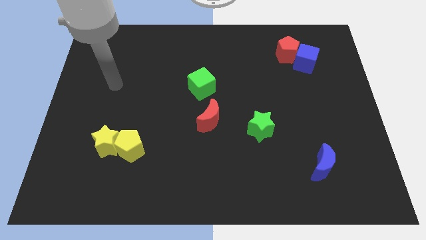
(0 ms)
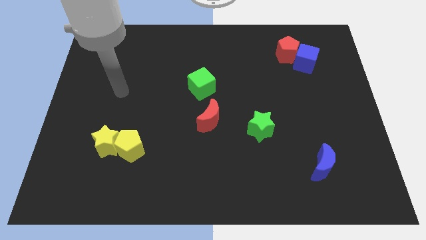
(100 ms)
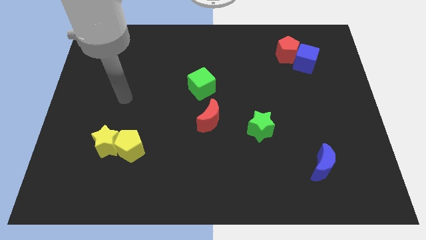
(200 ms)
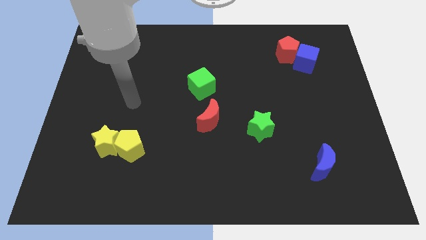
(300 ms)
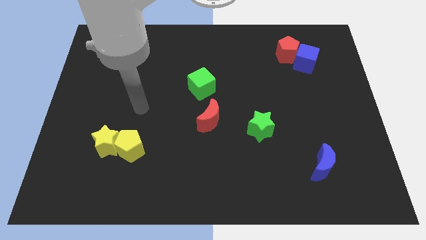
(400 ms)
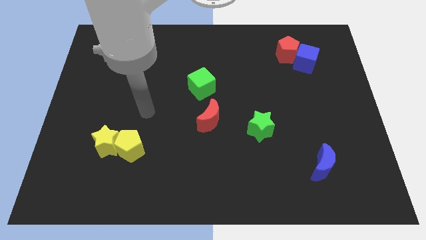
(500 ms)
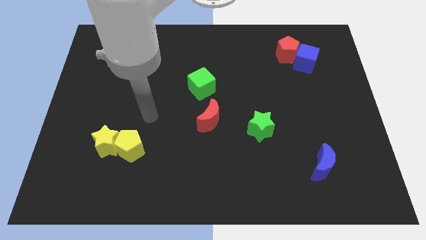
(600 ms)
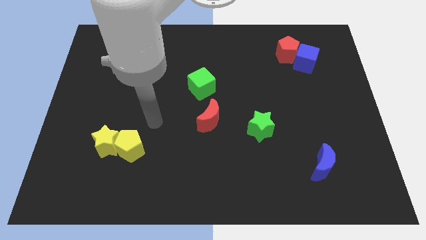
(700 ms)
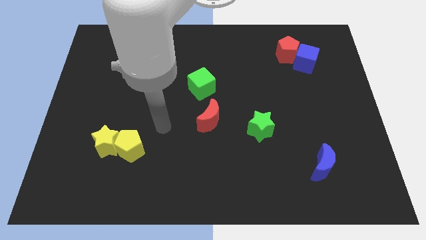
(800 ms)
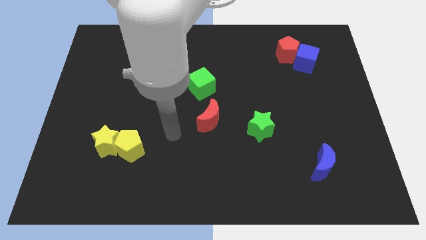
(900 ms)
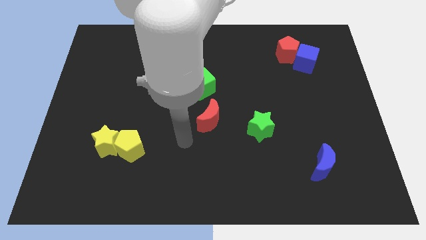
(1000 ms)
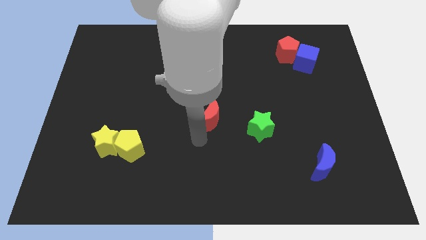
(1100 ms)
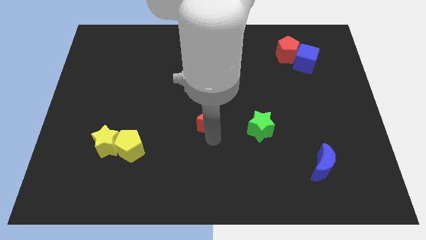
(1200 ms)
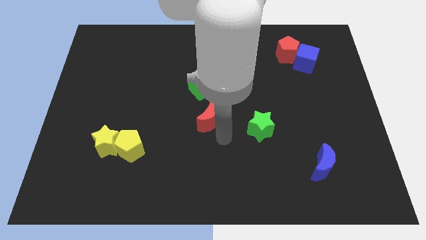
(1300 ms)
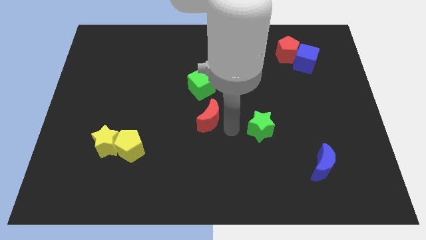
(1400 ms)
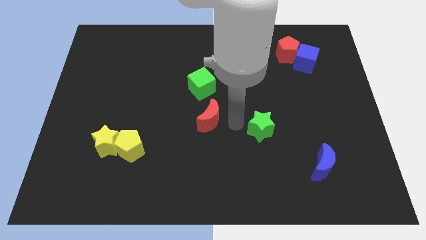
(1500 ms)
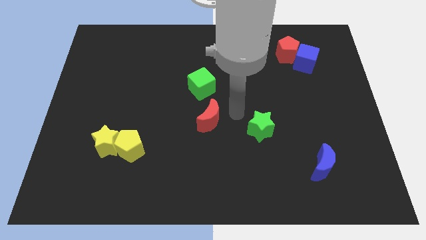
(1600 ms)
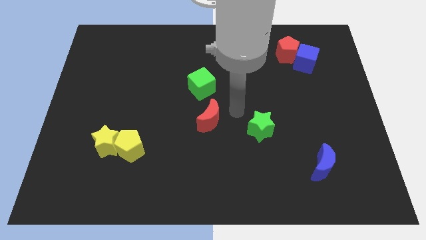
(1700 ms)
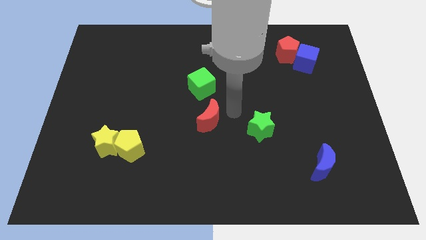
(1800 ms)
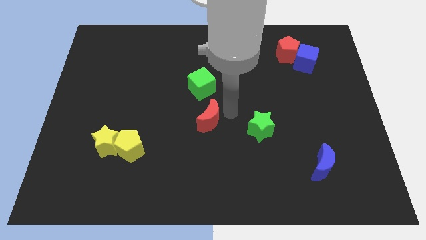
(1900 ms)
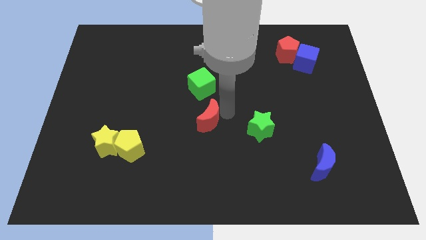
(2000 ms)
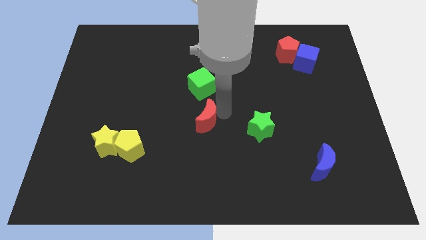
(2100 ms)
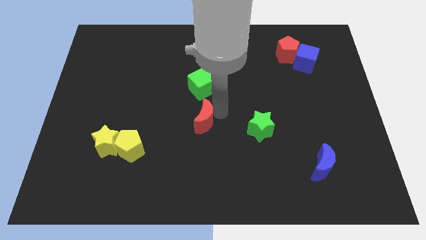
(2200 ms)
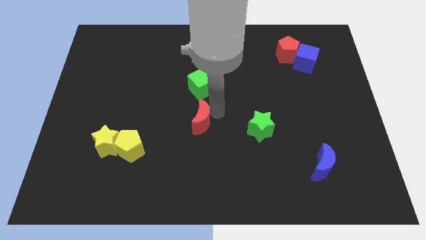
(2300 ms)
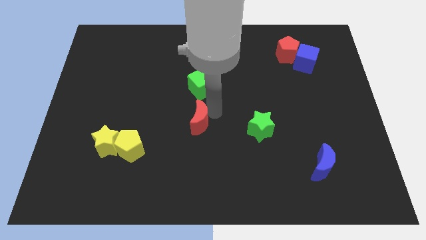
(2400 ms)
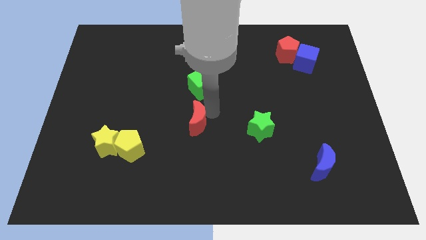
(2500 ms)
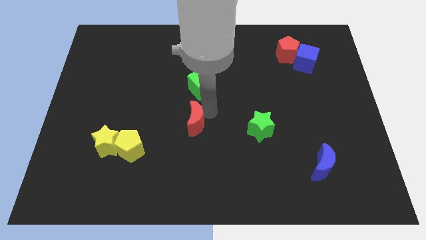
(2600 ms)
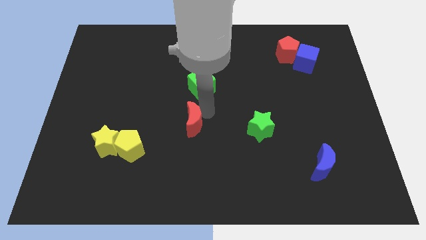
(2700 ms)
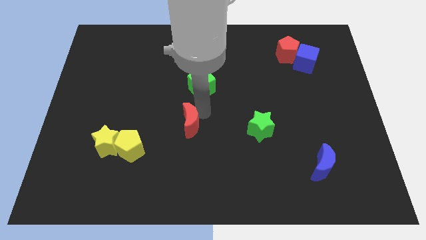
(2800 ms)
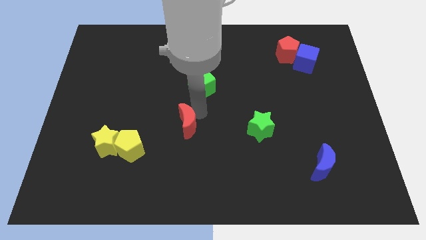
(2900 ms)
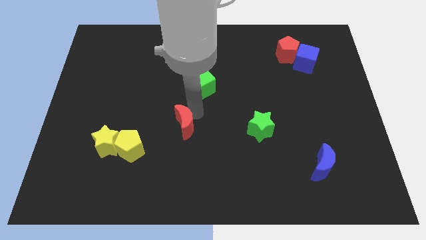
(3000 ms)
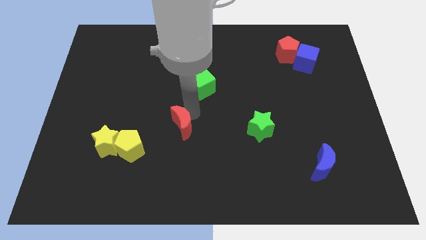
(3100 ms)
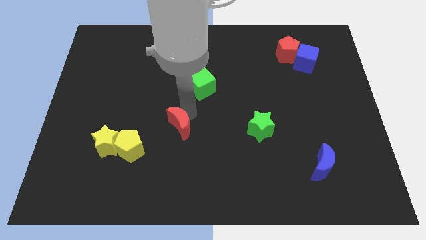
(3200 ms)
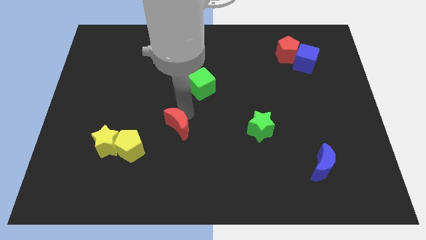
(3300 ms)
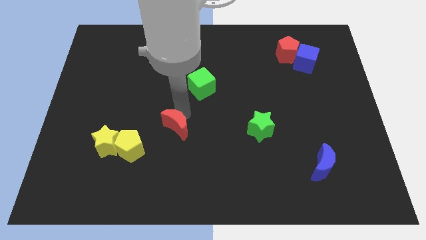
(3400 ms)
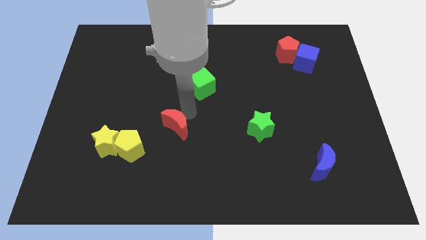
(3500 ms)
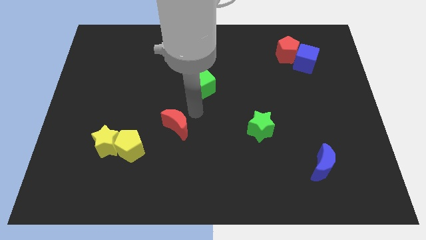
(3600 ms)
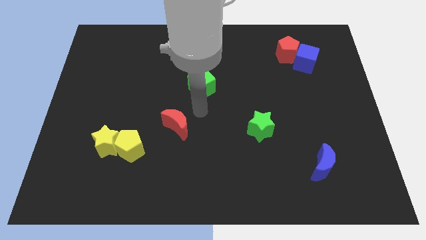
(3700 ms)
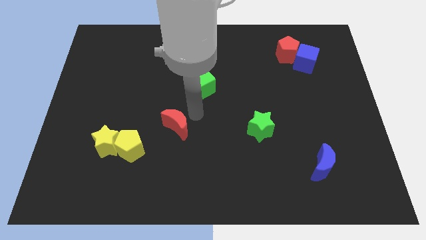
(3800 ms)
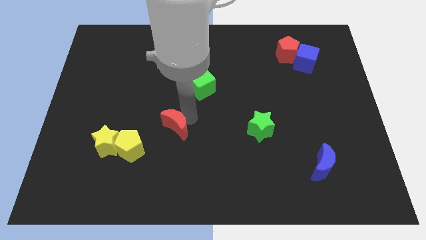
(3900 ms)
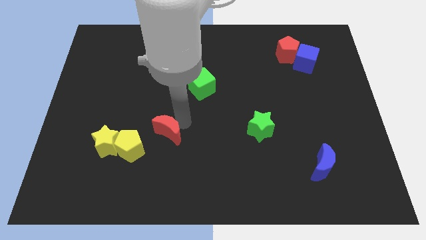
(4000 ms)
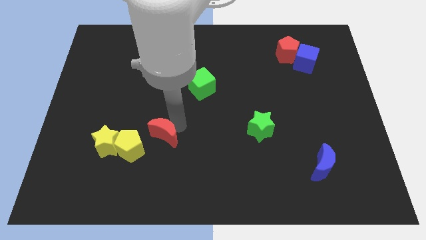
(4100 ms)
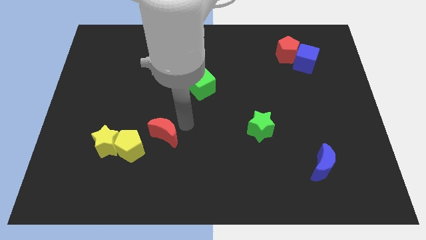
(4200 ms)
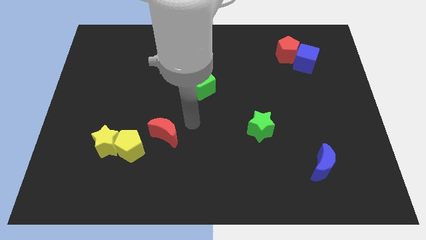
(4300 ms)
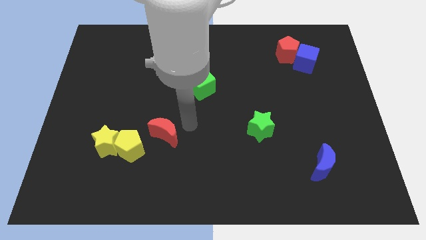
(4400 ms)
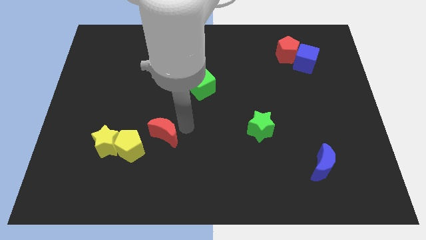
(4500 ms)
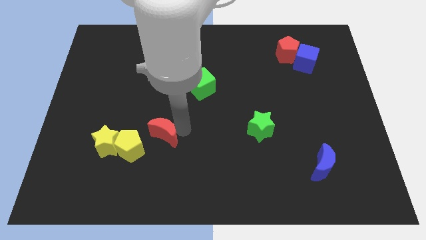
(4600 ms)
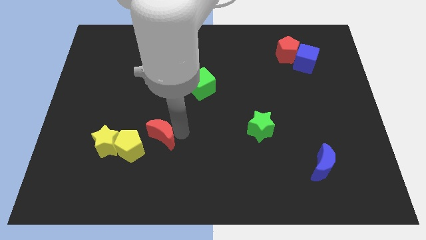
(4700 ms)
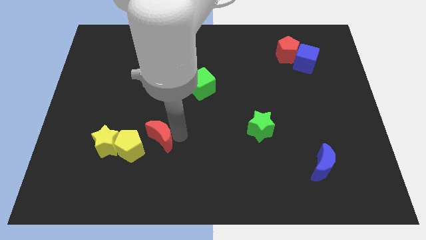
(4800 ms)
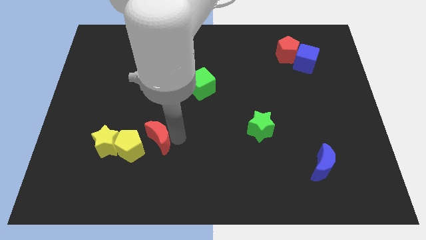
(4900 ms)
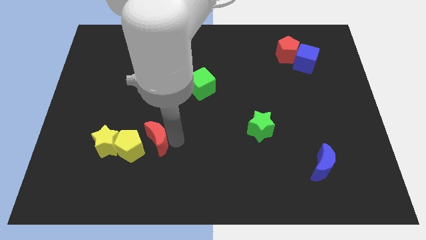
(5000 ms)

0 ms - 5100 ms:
put the red moon towards the yellow pentagon

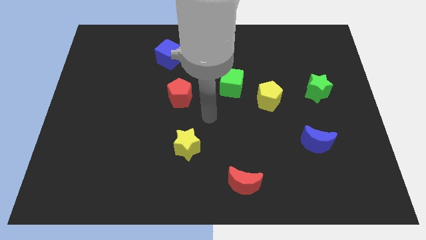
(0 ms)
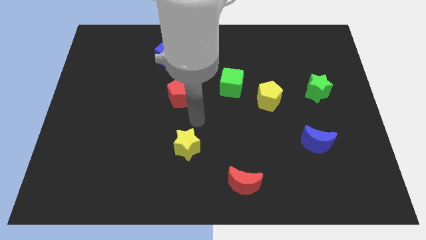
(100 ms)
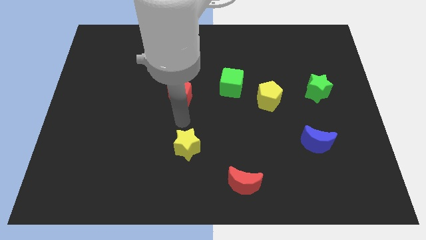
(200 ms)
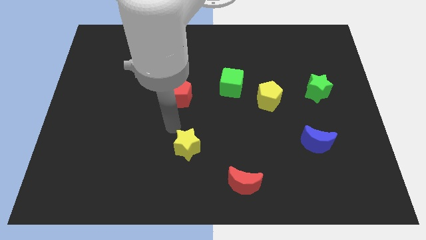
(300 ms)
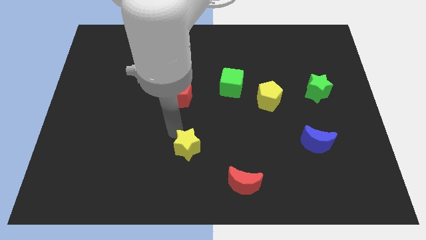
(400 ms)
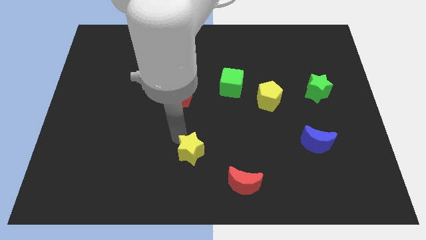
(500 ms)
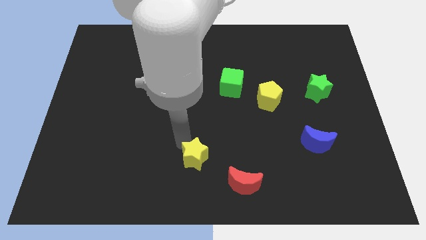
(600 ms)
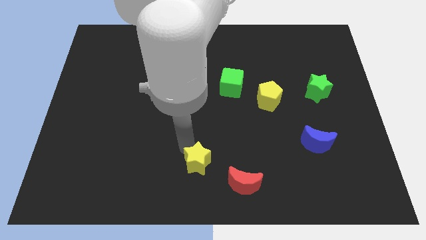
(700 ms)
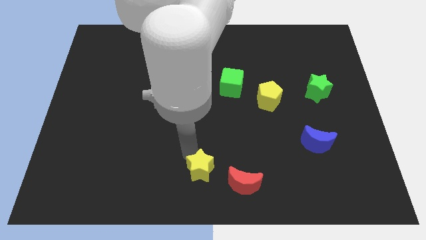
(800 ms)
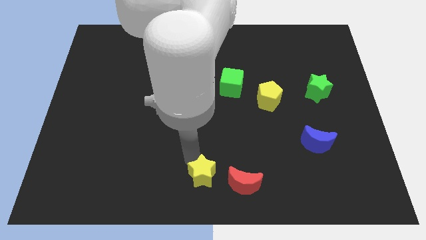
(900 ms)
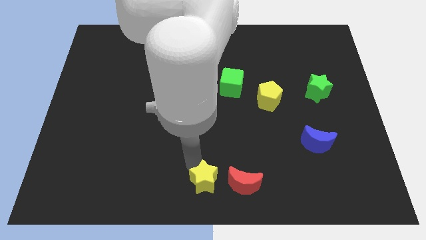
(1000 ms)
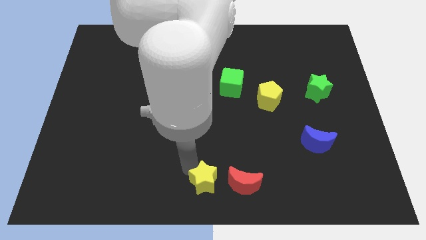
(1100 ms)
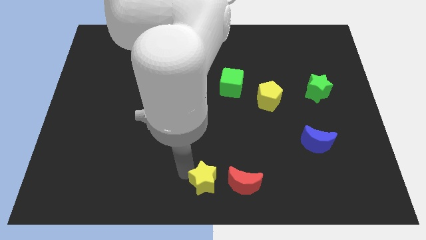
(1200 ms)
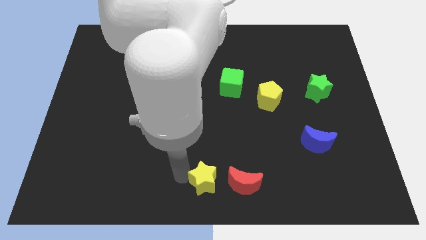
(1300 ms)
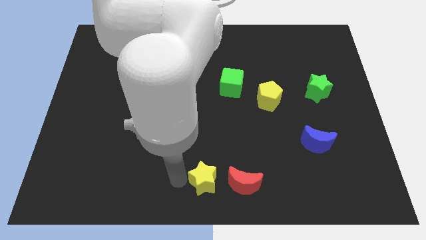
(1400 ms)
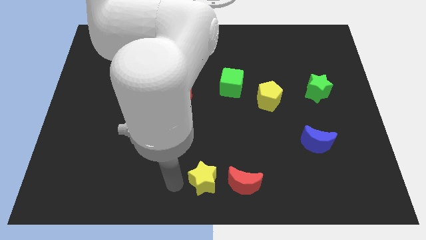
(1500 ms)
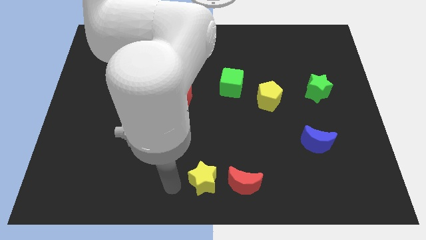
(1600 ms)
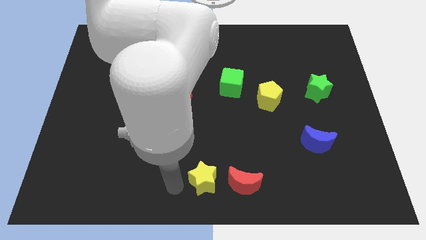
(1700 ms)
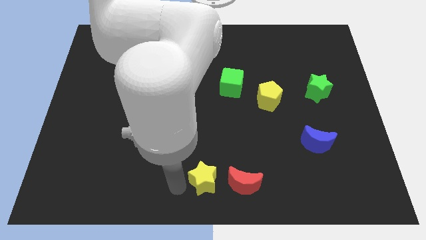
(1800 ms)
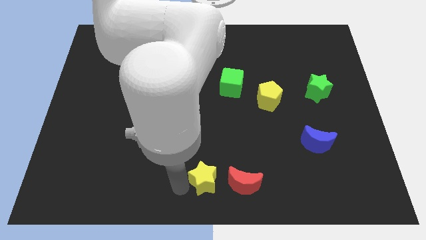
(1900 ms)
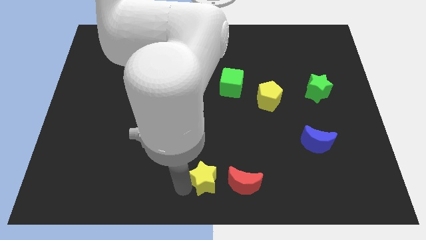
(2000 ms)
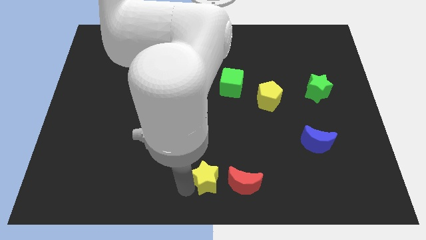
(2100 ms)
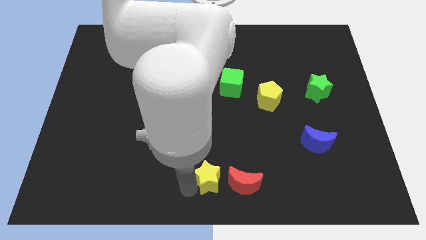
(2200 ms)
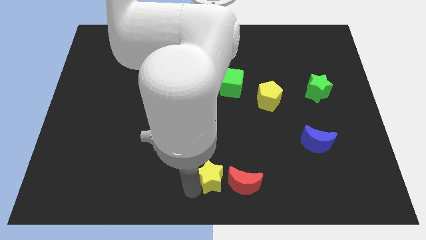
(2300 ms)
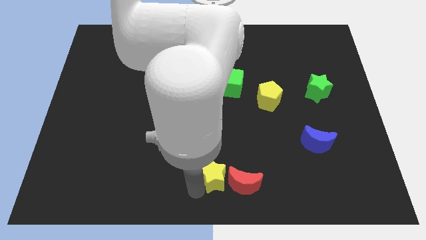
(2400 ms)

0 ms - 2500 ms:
move the yellow star next to the red moon
